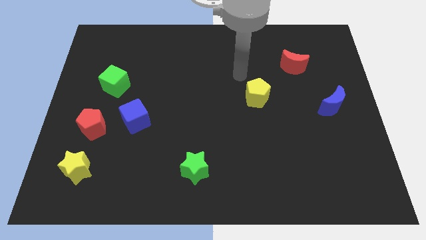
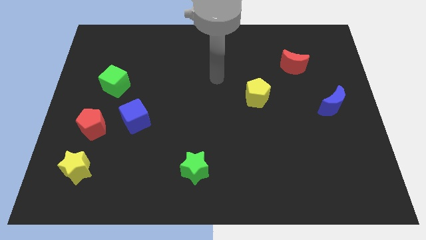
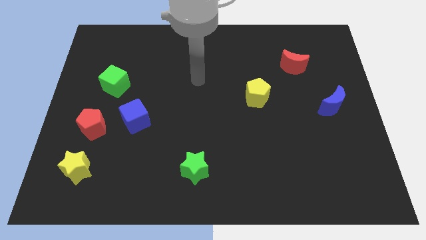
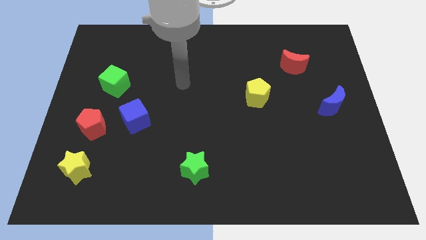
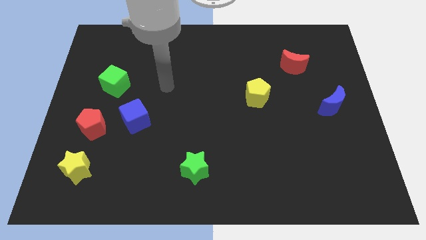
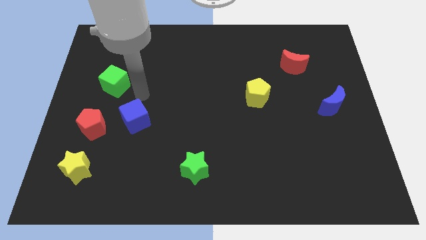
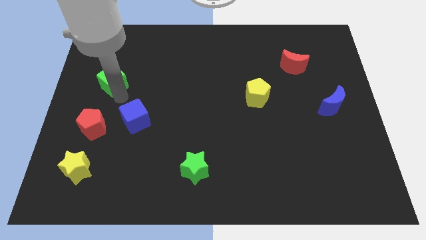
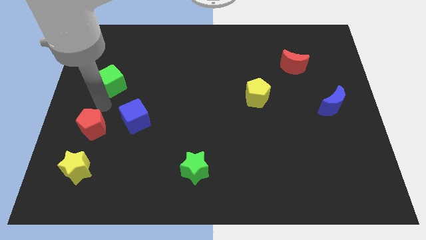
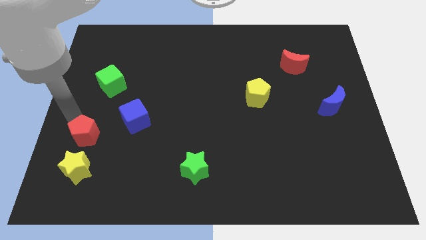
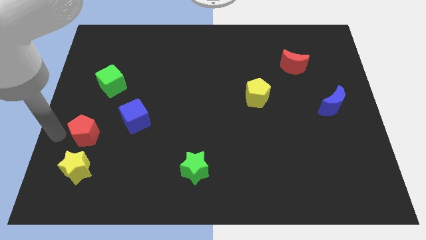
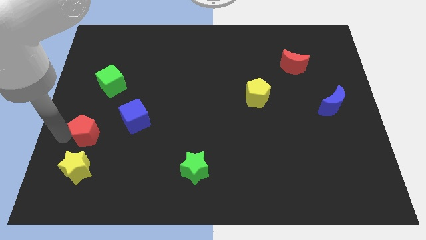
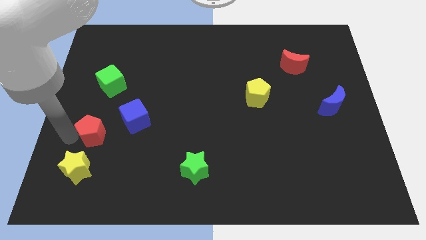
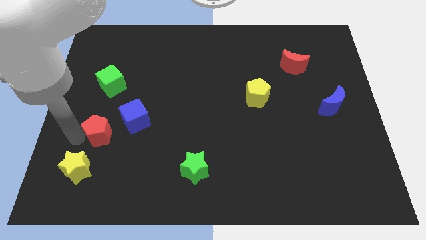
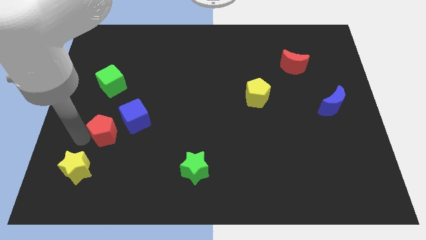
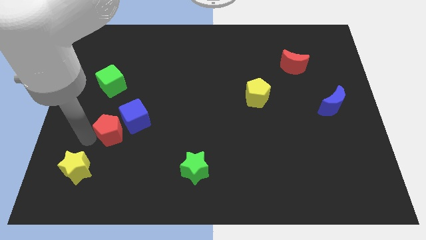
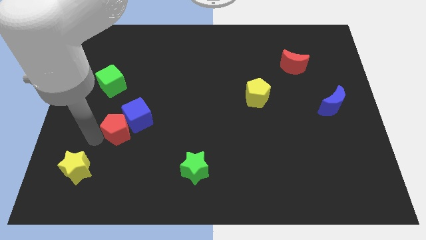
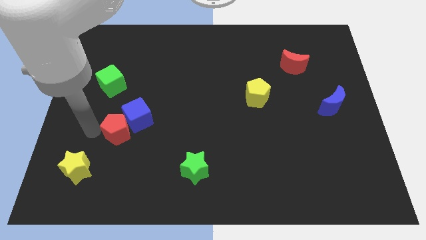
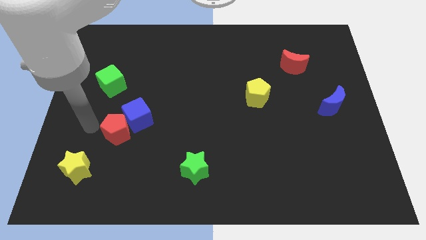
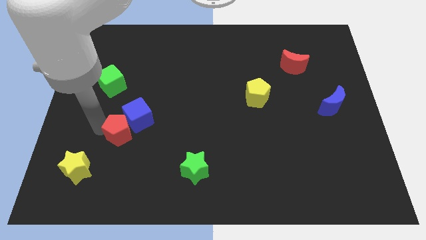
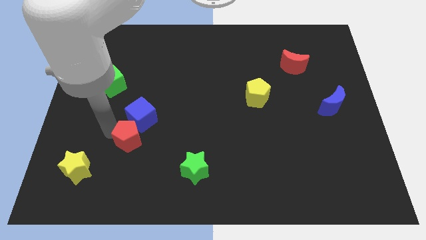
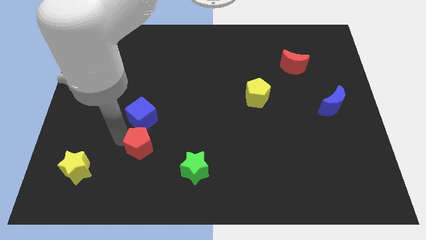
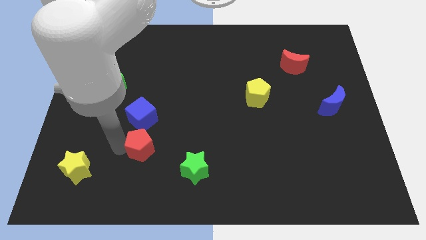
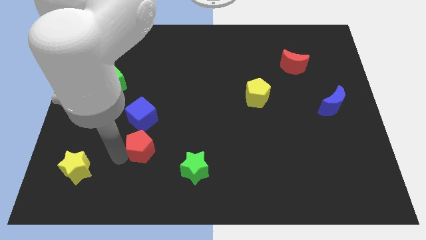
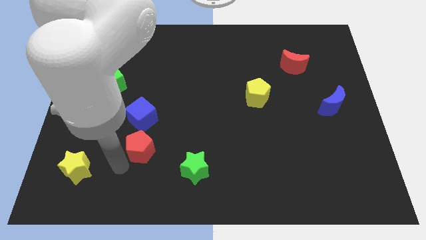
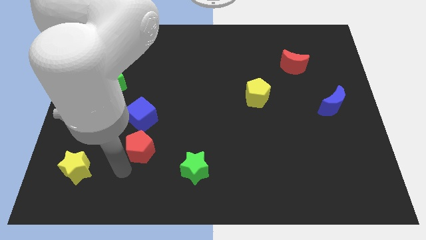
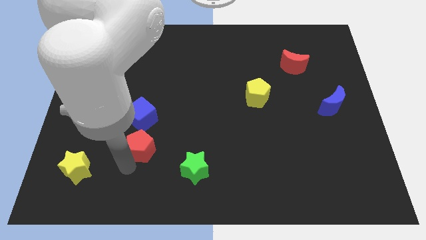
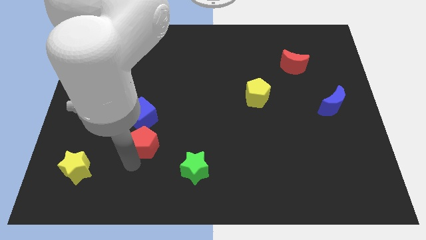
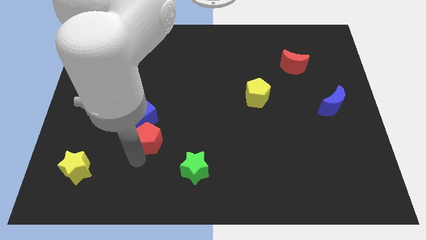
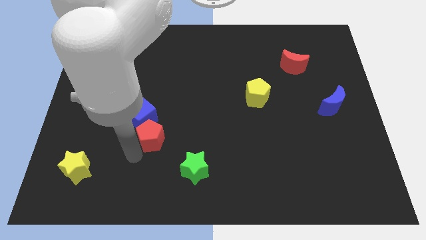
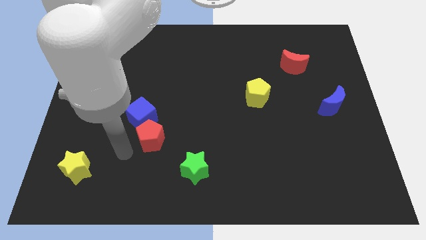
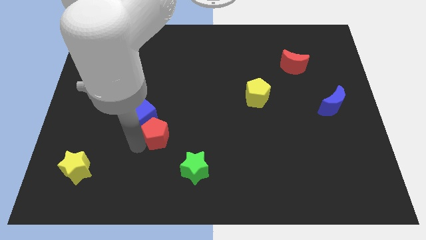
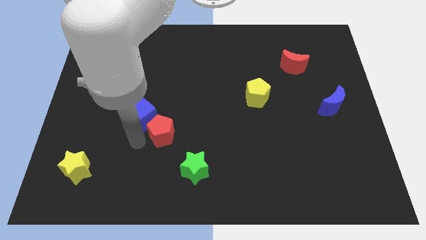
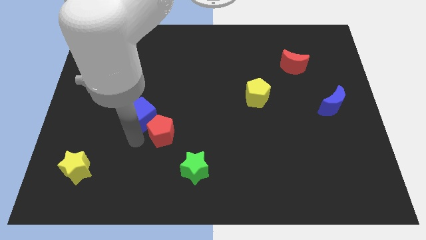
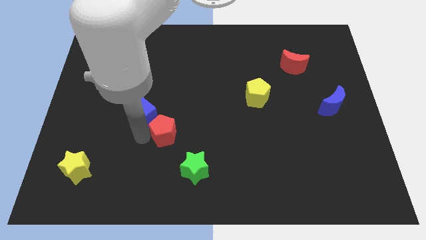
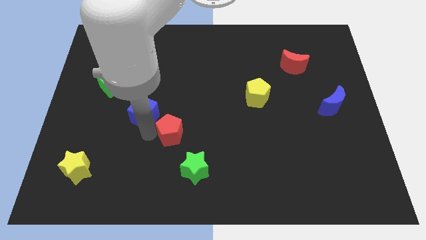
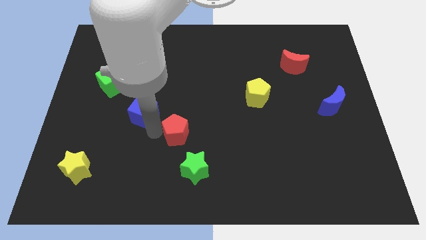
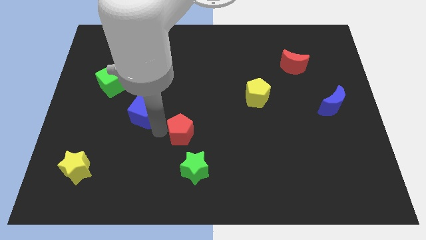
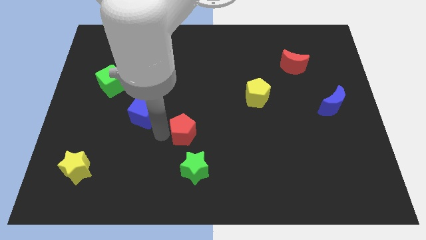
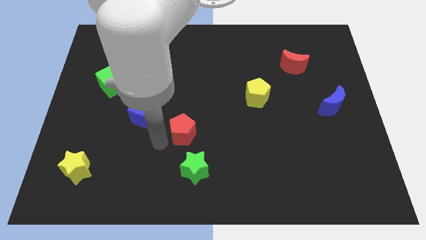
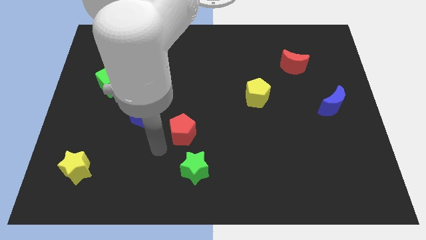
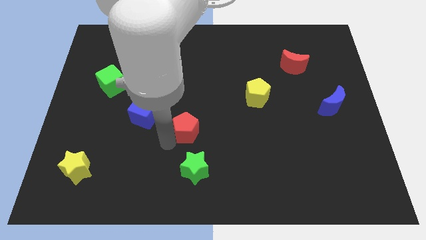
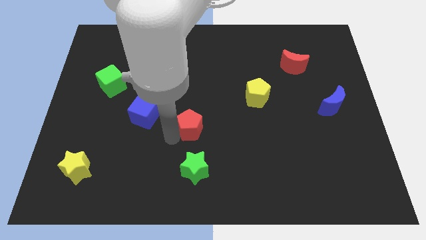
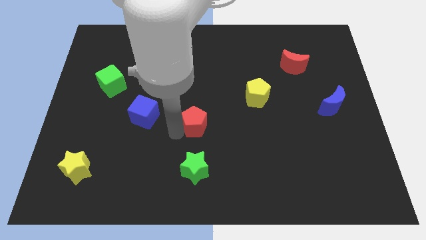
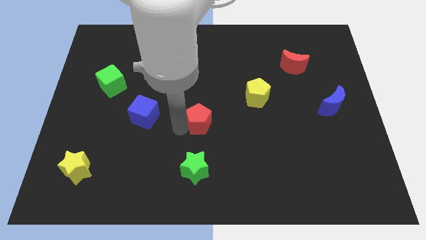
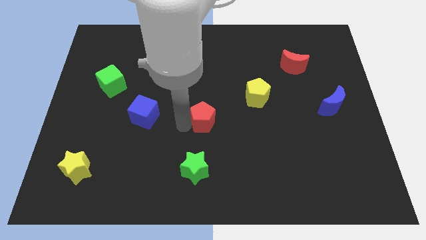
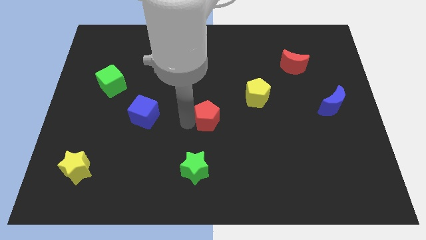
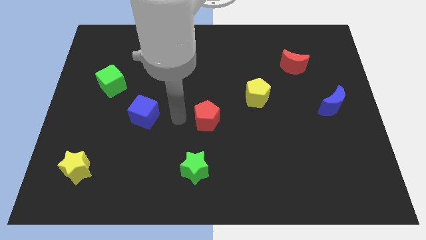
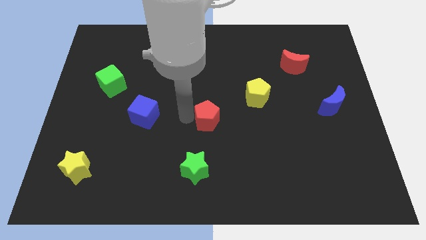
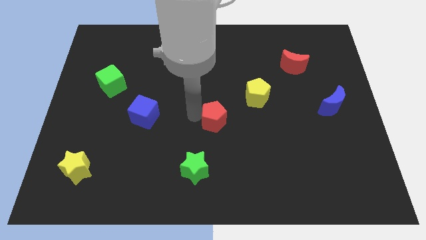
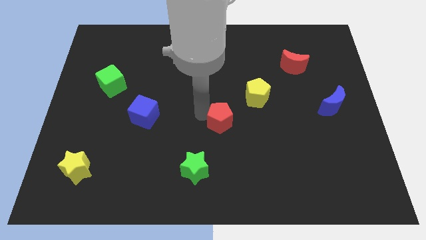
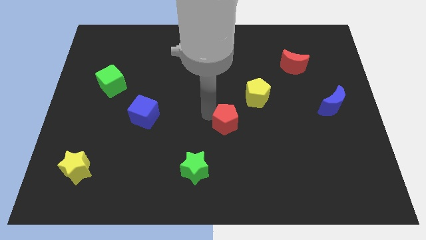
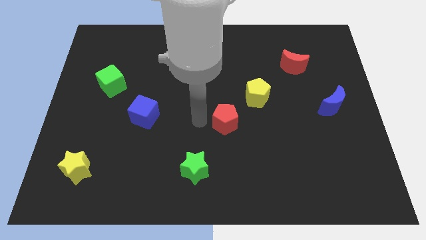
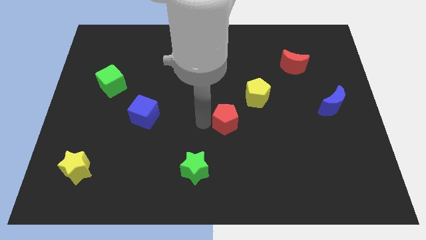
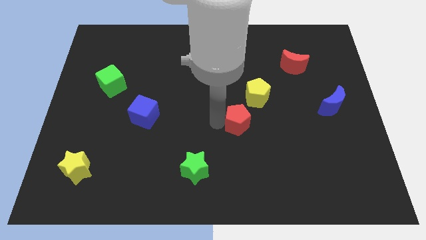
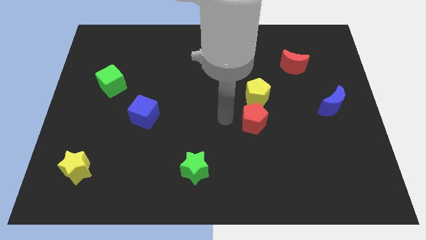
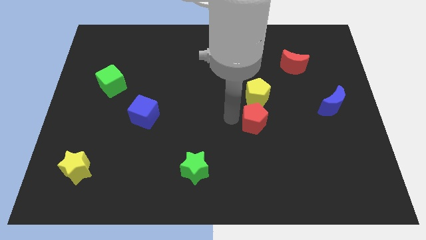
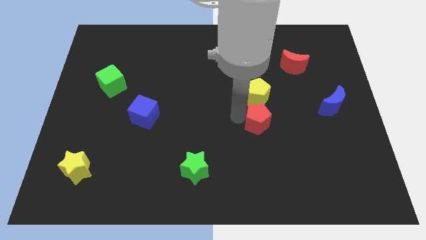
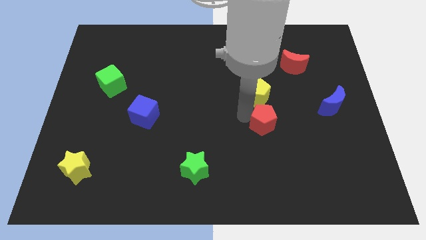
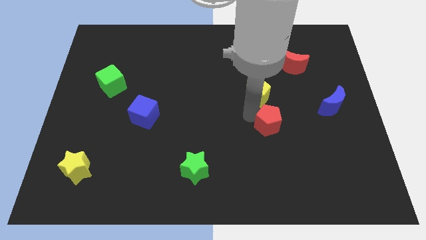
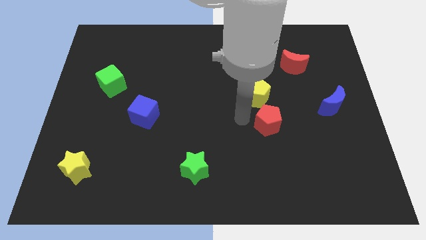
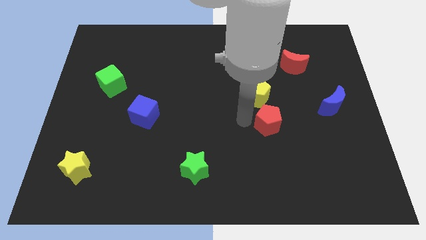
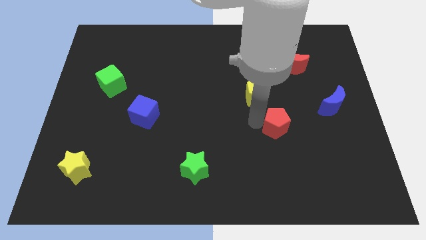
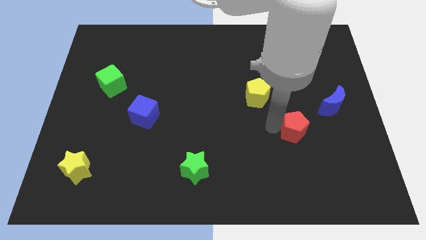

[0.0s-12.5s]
move the red pentagon diagonally down and to the left of the blue moon

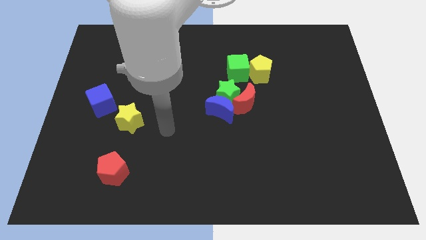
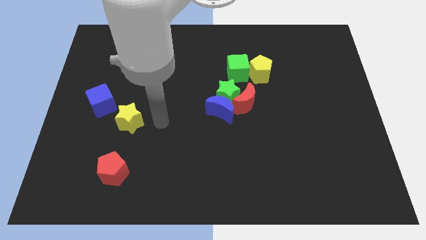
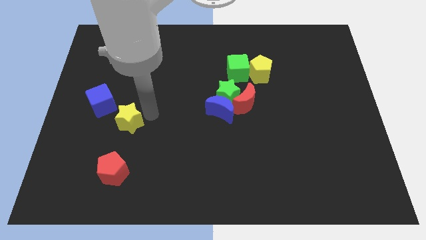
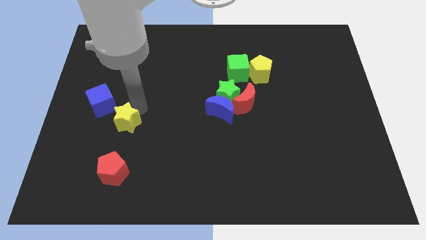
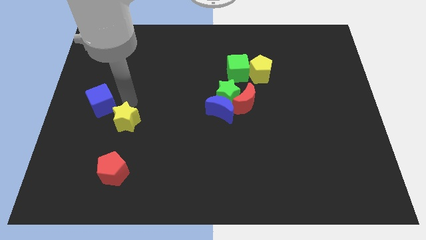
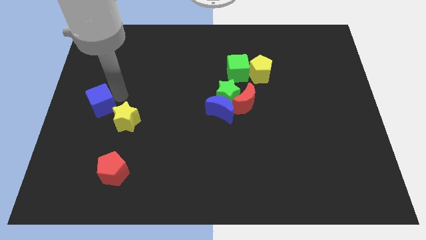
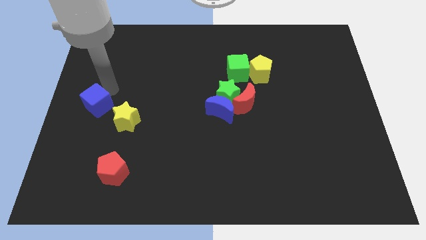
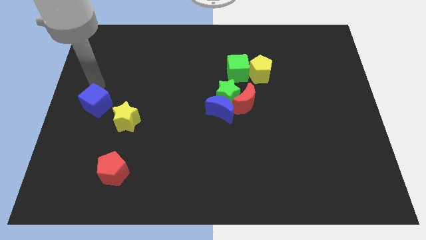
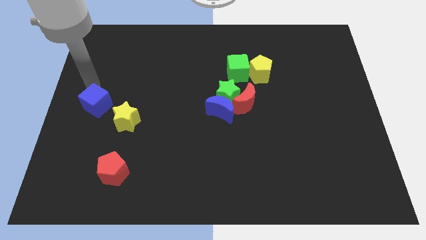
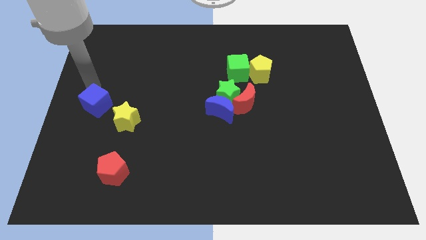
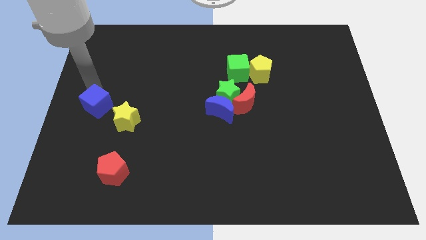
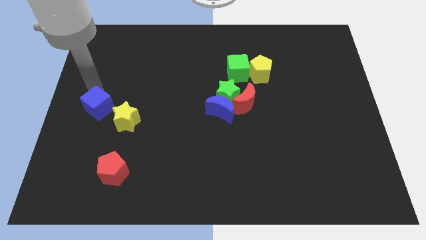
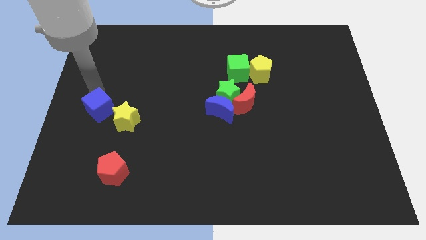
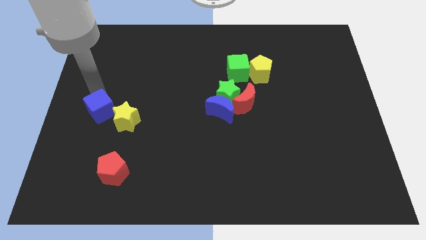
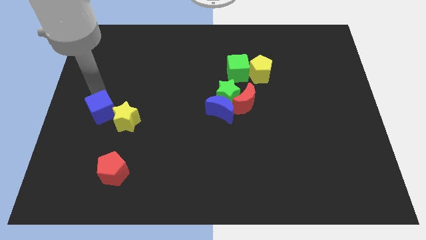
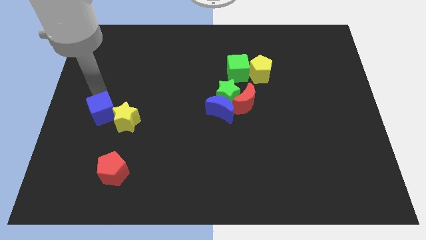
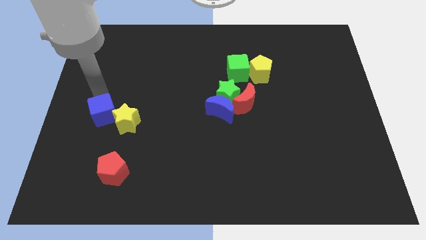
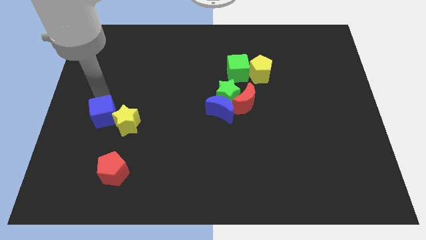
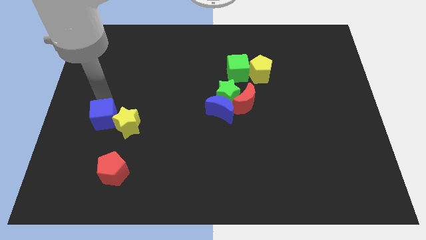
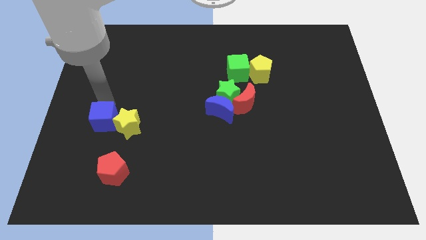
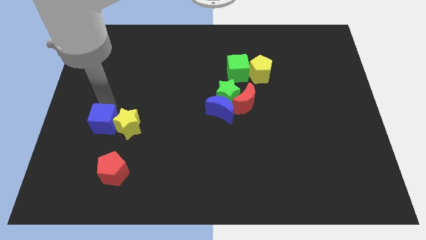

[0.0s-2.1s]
move the blue cube diagonally down and to the left of the yellow star
